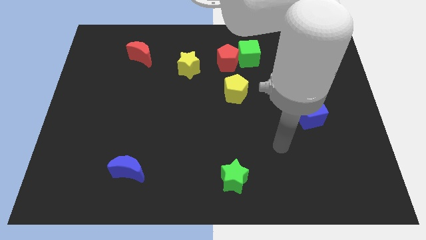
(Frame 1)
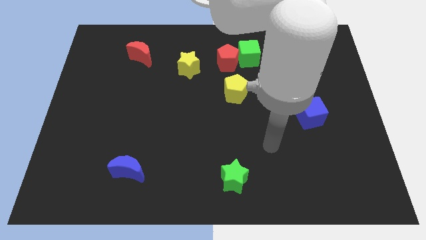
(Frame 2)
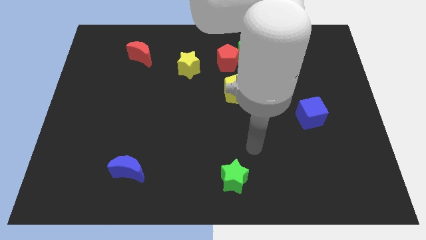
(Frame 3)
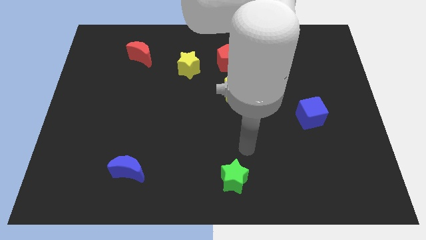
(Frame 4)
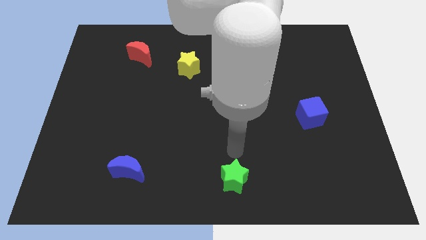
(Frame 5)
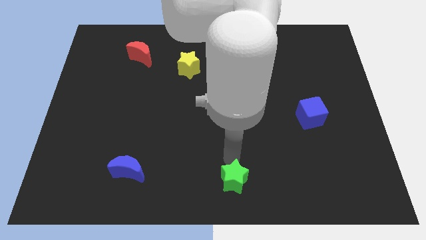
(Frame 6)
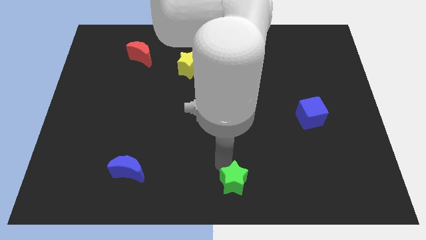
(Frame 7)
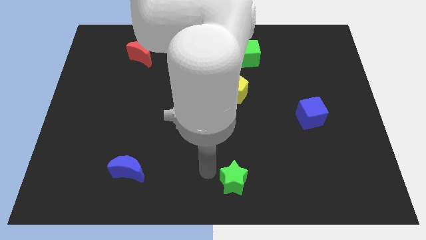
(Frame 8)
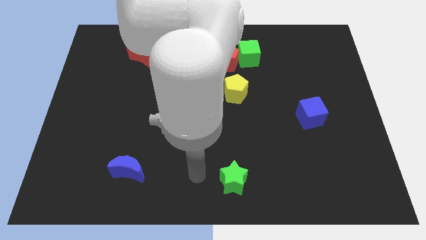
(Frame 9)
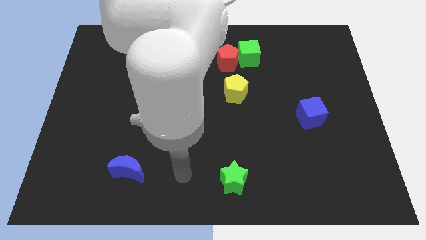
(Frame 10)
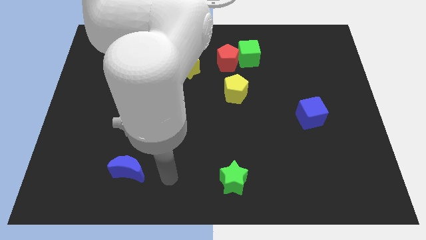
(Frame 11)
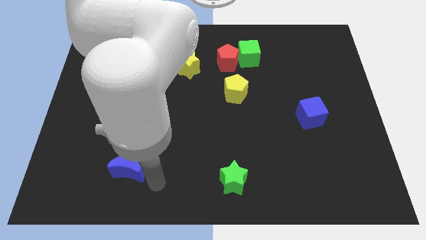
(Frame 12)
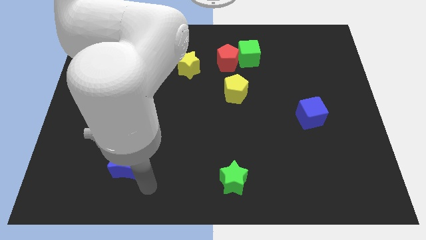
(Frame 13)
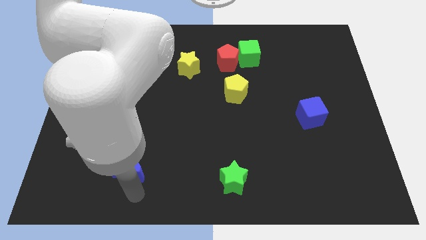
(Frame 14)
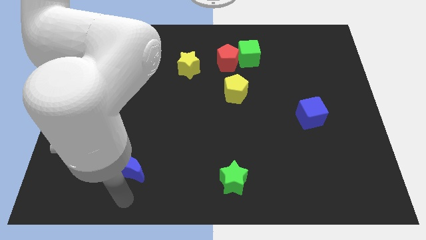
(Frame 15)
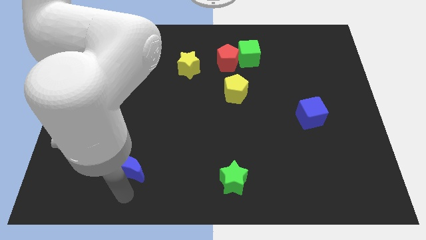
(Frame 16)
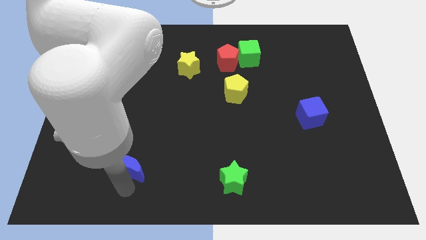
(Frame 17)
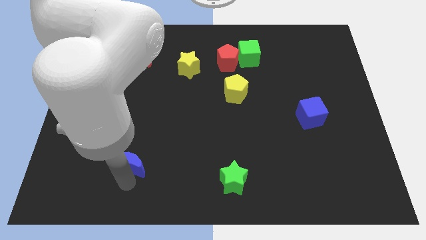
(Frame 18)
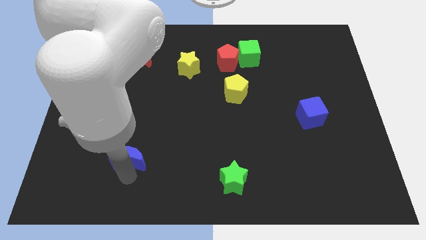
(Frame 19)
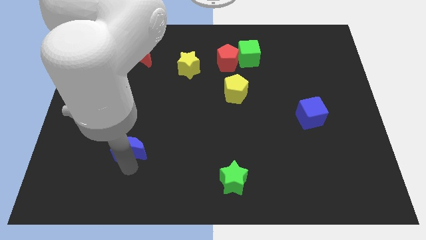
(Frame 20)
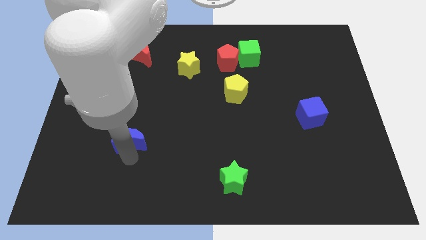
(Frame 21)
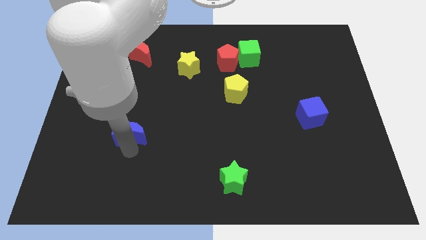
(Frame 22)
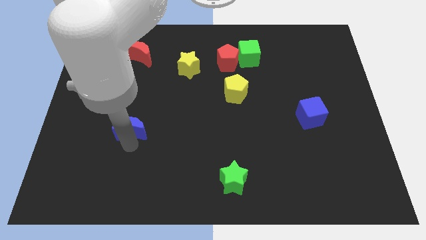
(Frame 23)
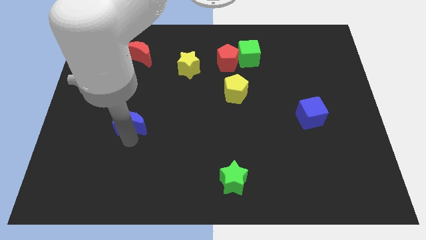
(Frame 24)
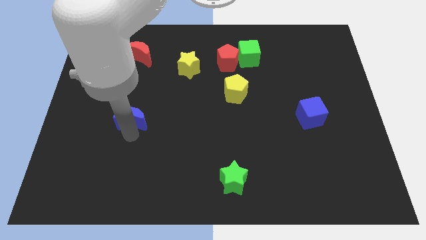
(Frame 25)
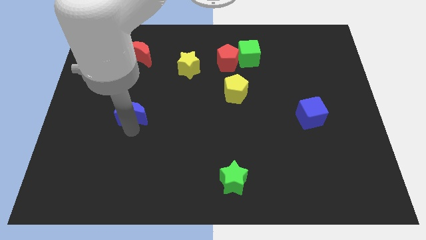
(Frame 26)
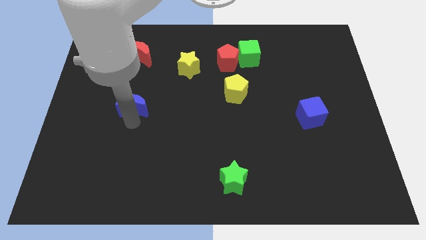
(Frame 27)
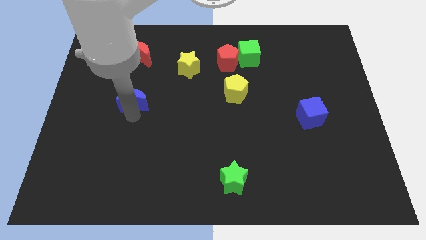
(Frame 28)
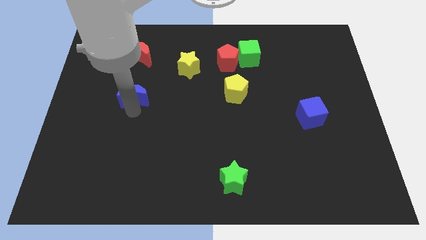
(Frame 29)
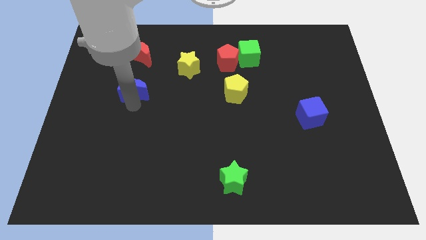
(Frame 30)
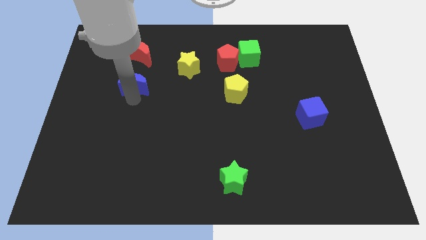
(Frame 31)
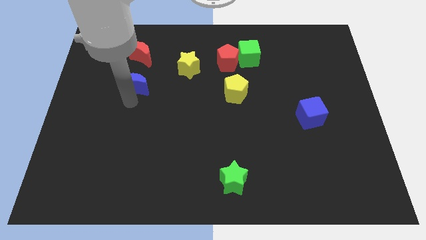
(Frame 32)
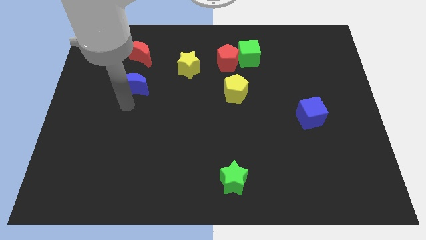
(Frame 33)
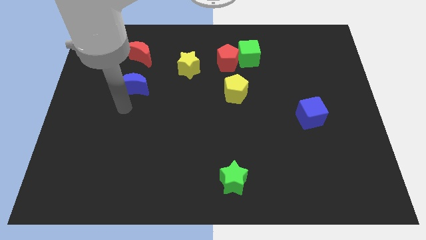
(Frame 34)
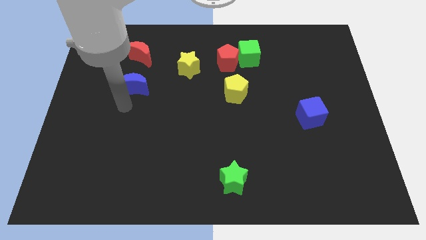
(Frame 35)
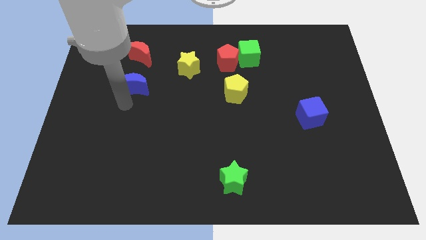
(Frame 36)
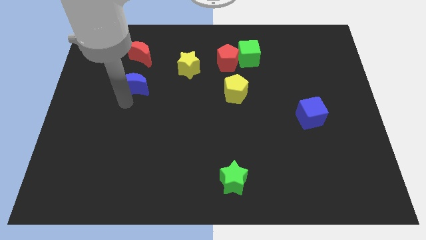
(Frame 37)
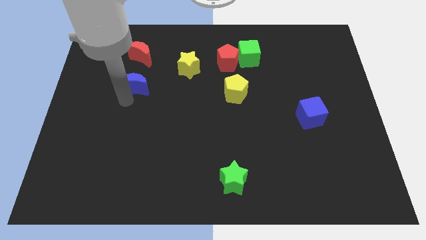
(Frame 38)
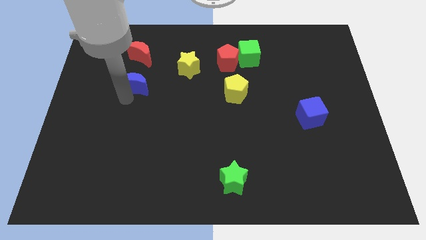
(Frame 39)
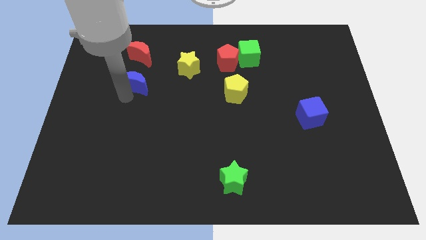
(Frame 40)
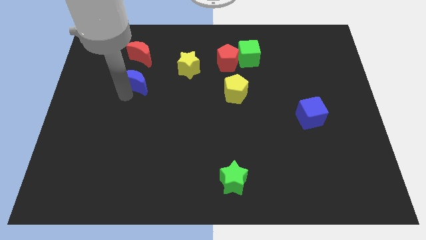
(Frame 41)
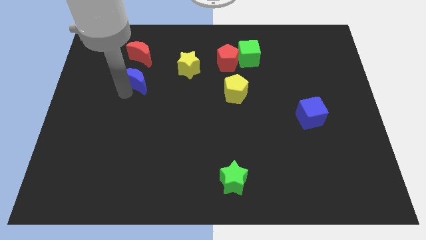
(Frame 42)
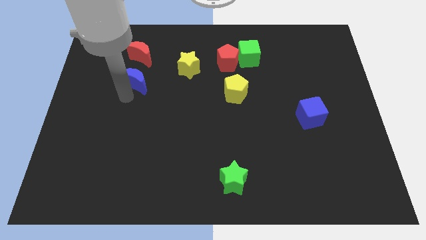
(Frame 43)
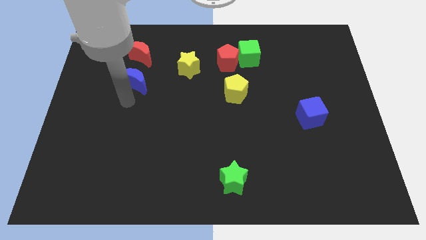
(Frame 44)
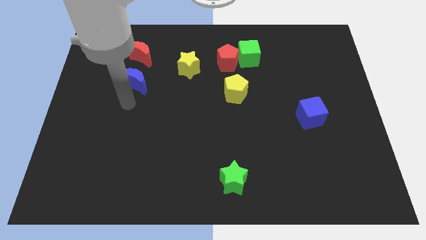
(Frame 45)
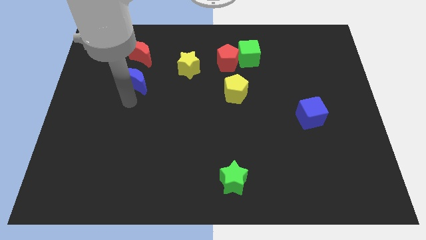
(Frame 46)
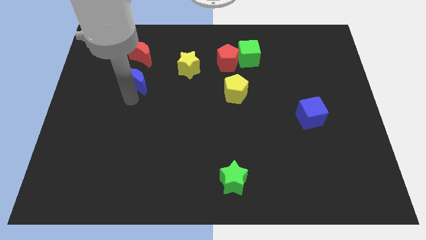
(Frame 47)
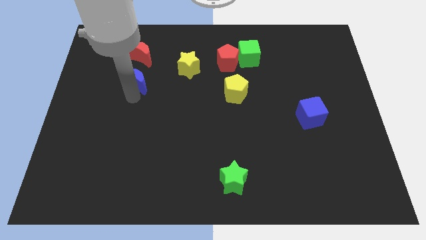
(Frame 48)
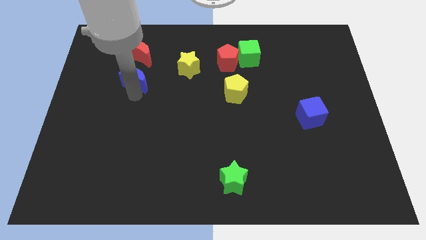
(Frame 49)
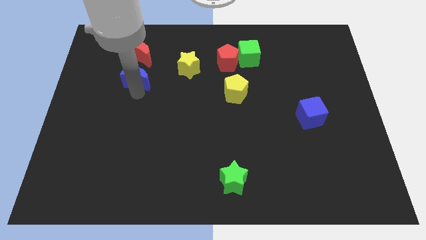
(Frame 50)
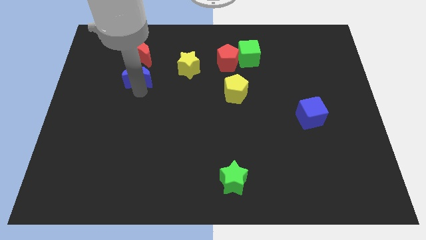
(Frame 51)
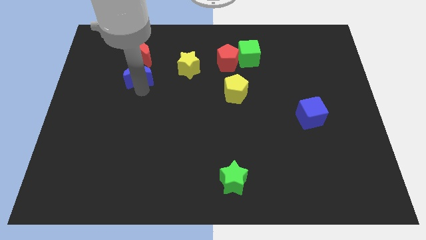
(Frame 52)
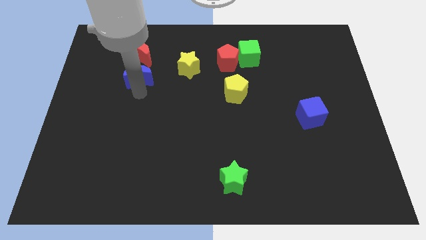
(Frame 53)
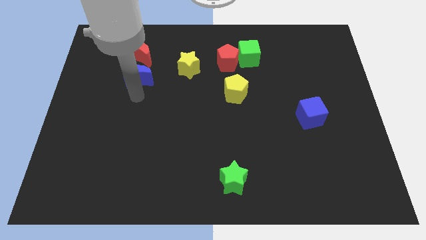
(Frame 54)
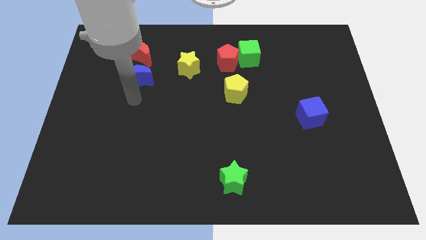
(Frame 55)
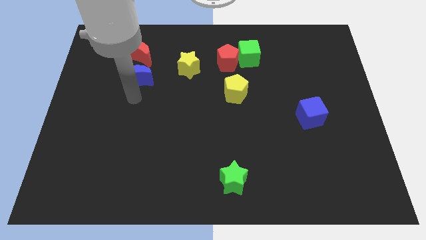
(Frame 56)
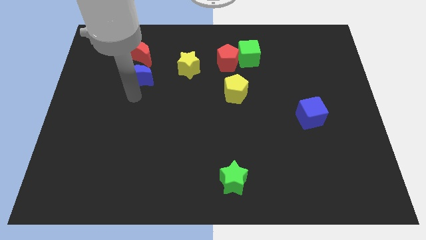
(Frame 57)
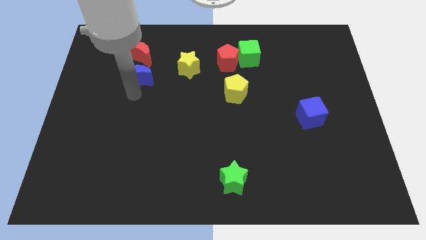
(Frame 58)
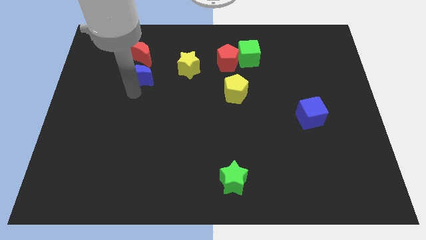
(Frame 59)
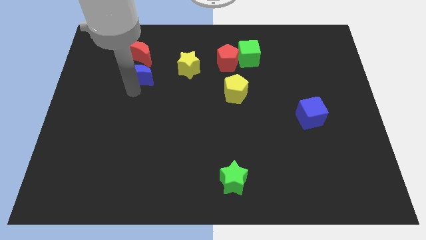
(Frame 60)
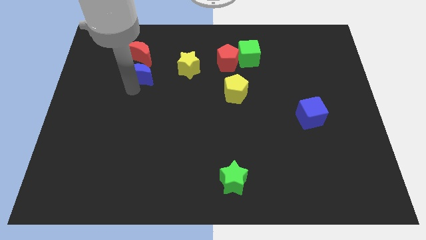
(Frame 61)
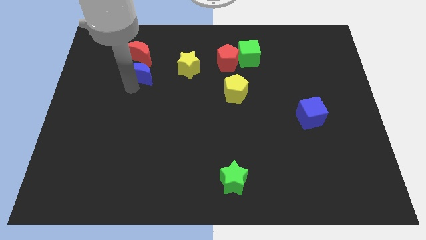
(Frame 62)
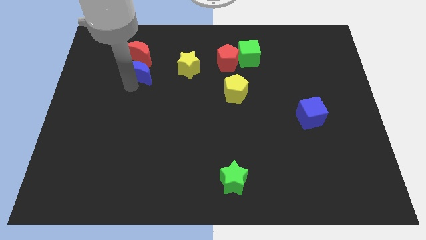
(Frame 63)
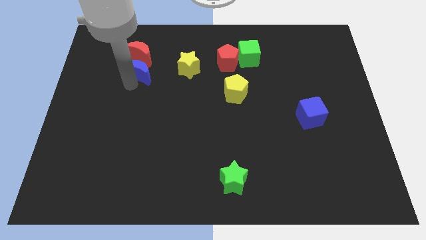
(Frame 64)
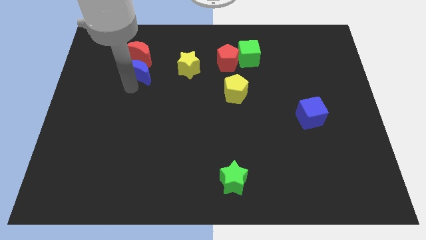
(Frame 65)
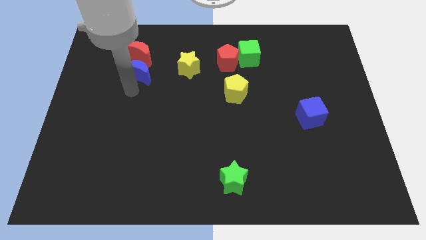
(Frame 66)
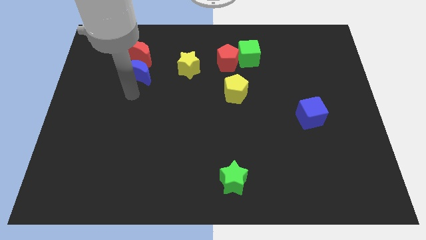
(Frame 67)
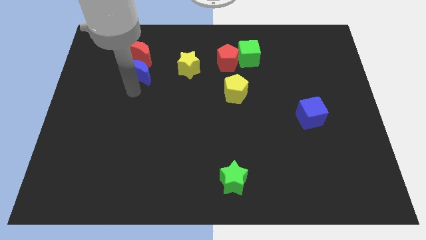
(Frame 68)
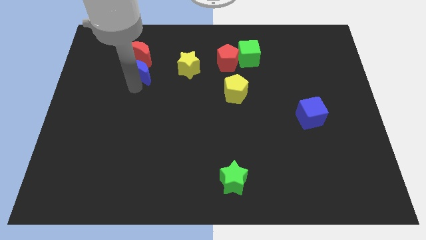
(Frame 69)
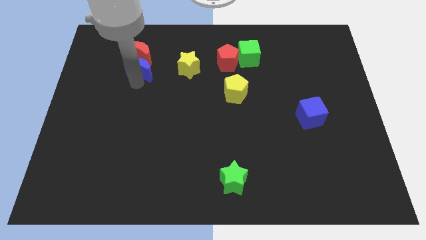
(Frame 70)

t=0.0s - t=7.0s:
push the blue moon close to the red moon

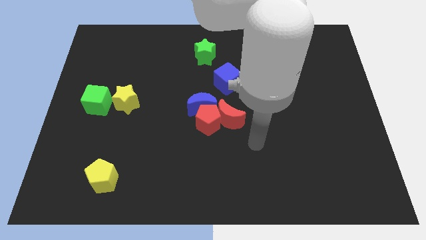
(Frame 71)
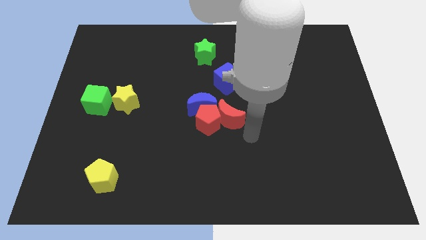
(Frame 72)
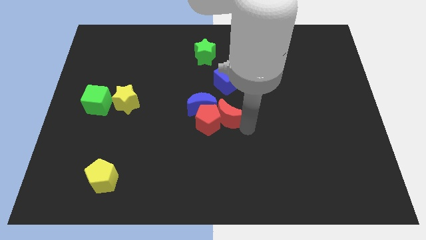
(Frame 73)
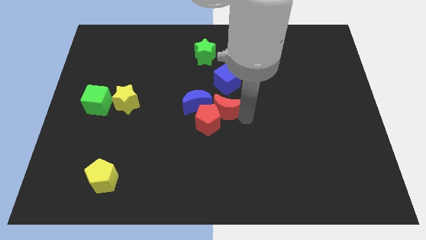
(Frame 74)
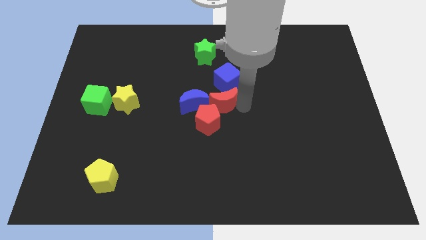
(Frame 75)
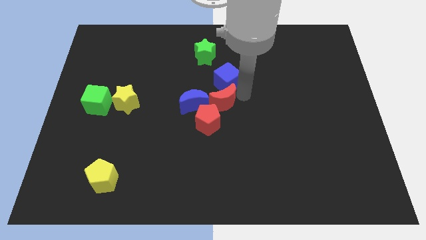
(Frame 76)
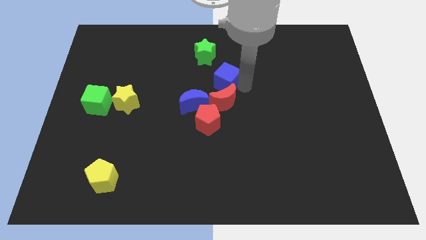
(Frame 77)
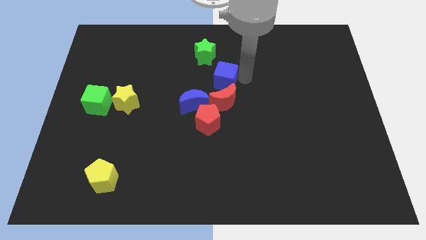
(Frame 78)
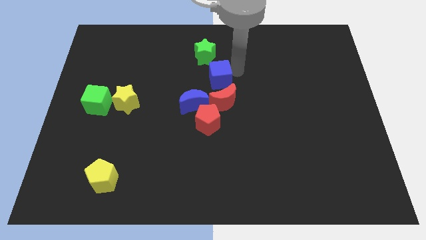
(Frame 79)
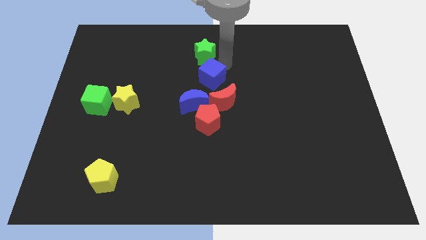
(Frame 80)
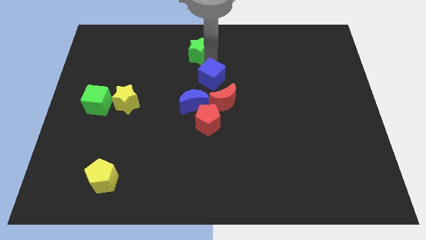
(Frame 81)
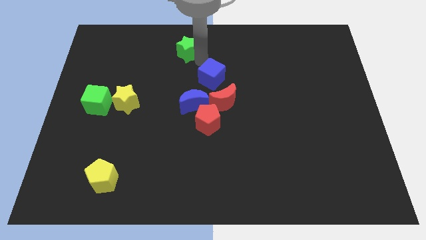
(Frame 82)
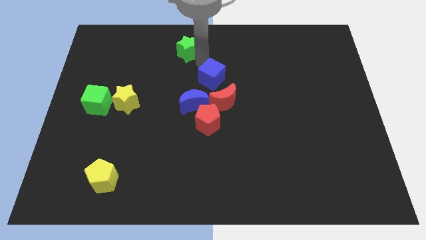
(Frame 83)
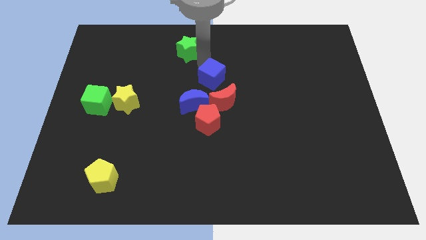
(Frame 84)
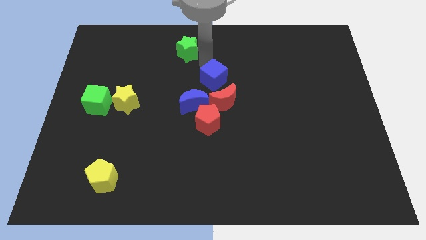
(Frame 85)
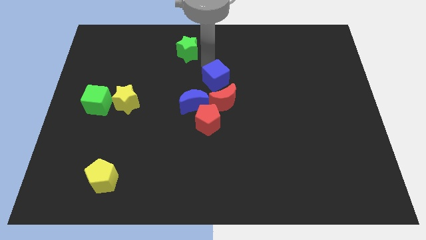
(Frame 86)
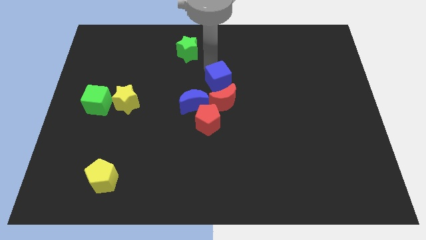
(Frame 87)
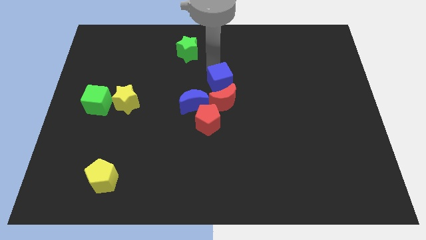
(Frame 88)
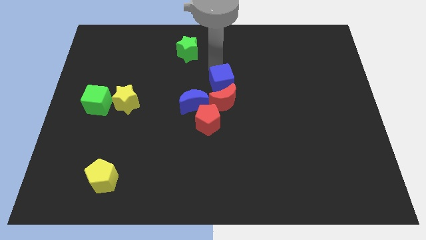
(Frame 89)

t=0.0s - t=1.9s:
put the blue cube next to the red moon
